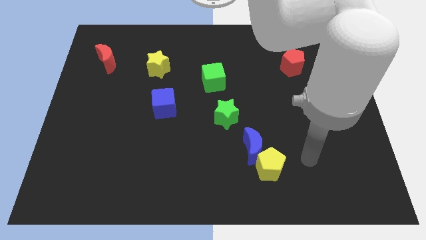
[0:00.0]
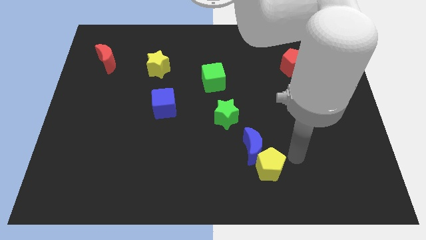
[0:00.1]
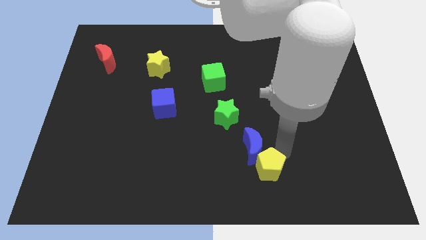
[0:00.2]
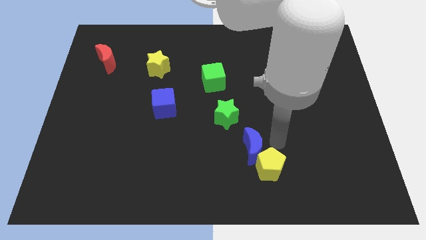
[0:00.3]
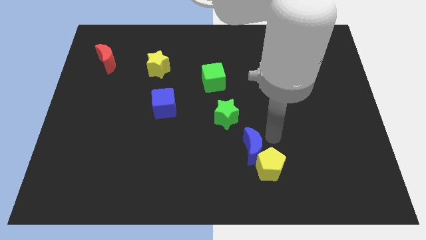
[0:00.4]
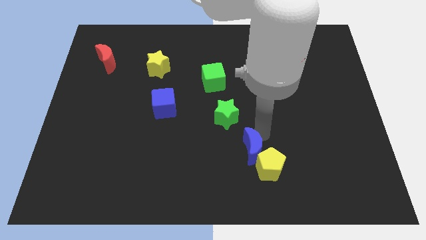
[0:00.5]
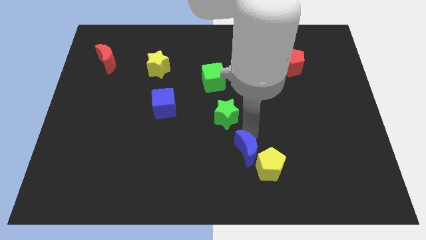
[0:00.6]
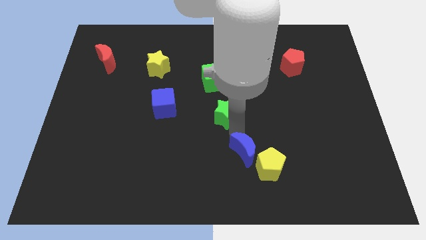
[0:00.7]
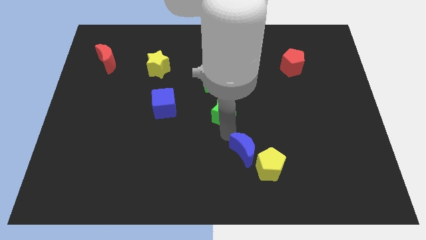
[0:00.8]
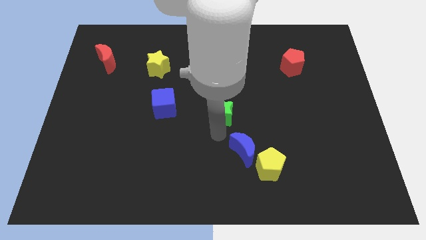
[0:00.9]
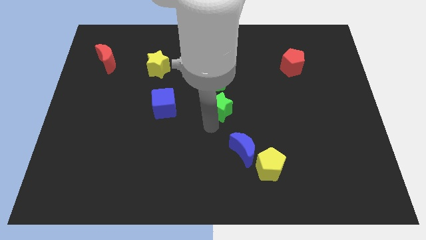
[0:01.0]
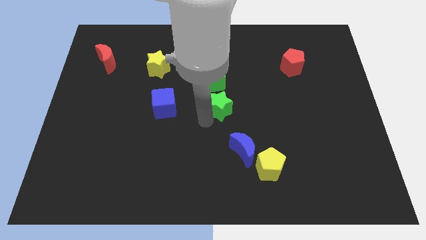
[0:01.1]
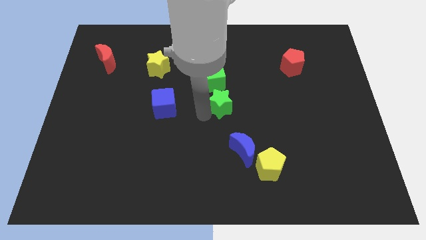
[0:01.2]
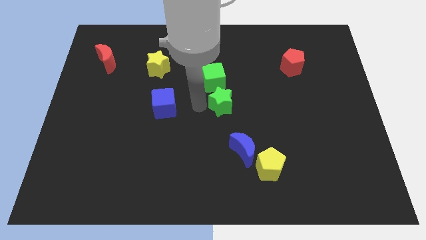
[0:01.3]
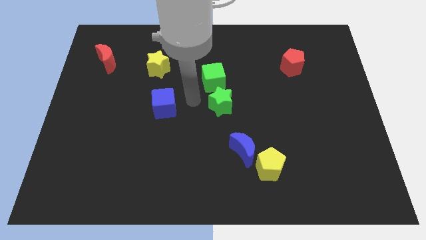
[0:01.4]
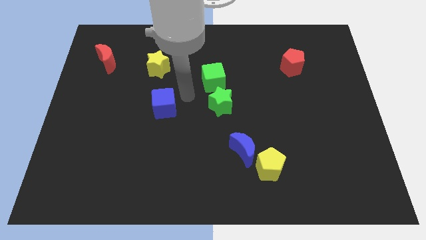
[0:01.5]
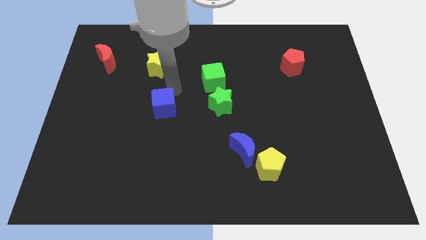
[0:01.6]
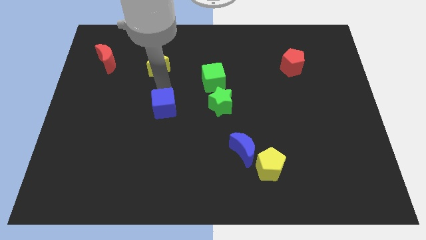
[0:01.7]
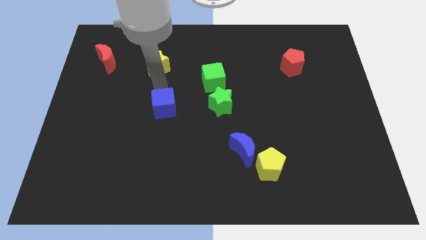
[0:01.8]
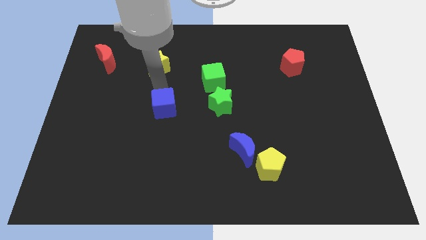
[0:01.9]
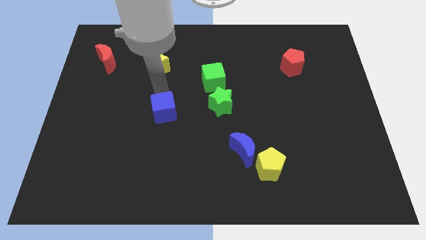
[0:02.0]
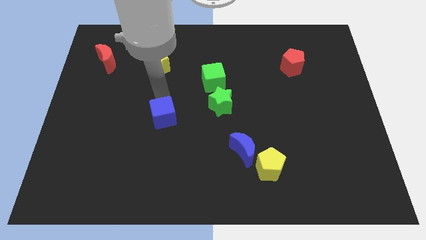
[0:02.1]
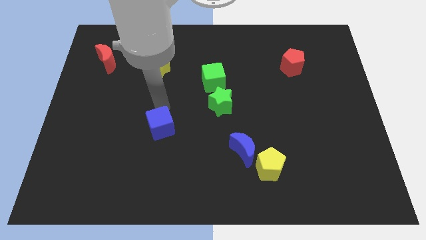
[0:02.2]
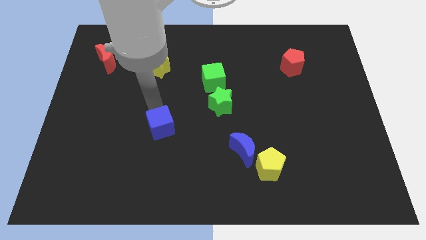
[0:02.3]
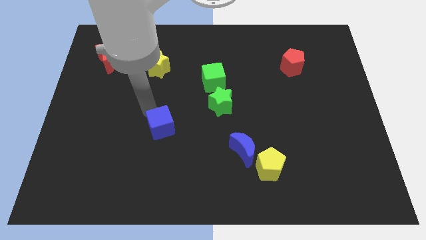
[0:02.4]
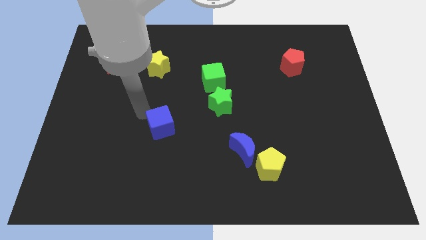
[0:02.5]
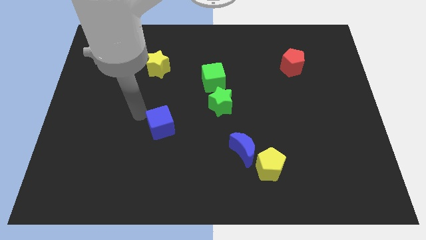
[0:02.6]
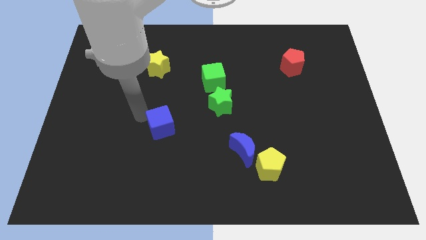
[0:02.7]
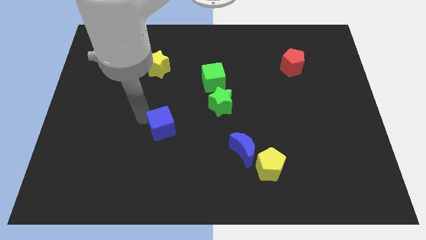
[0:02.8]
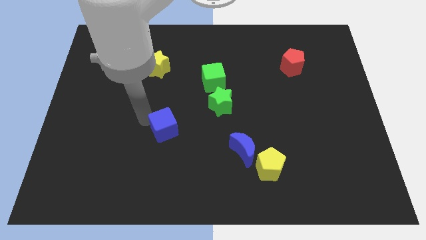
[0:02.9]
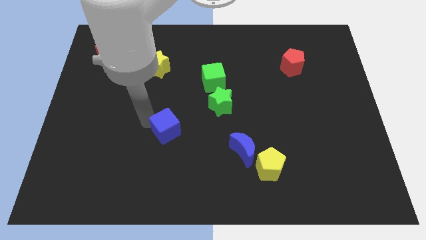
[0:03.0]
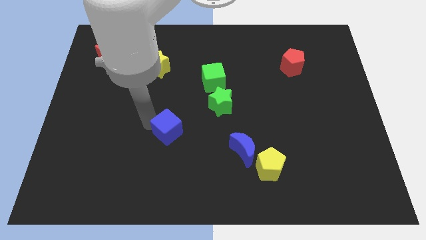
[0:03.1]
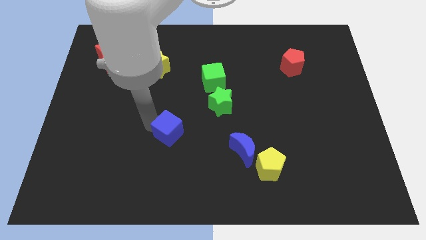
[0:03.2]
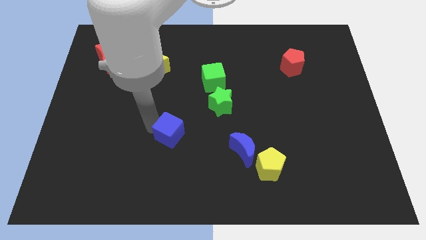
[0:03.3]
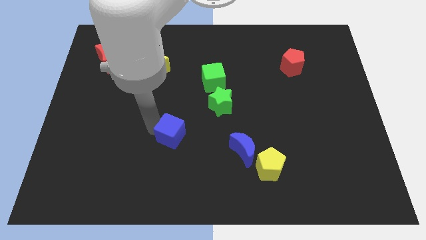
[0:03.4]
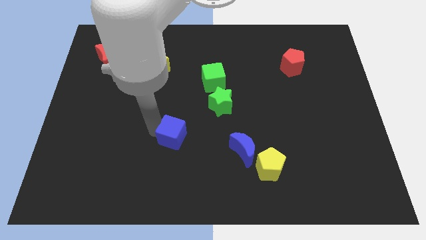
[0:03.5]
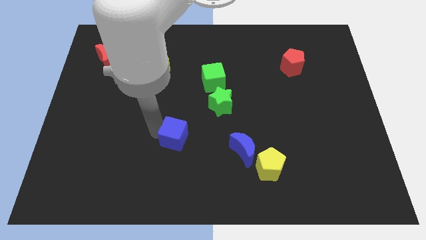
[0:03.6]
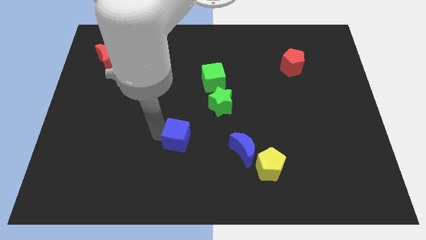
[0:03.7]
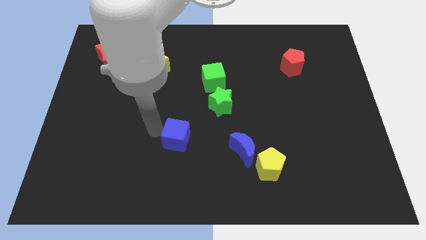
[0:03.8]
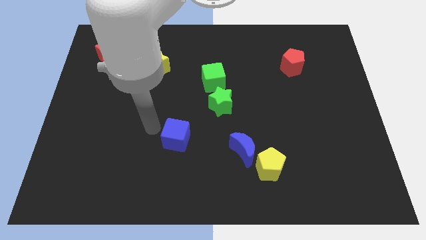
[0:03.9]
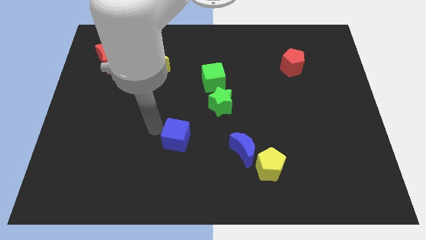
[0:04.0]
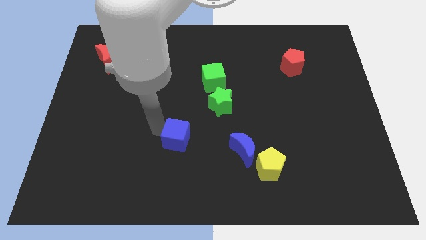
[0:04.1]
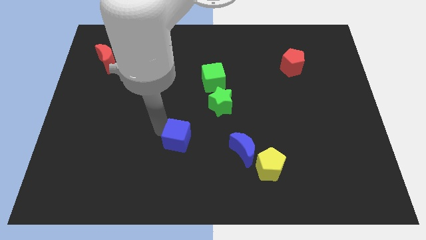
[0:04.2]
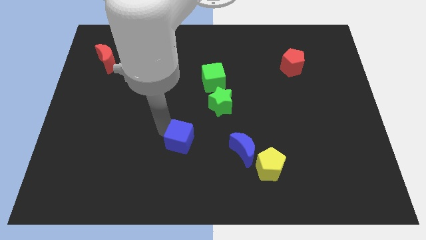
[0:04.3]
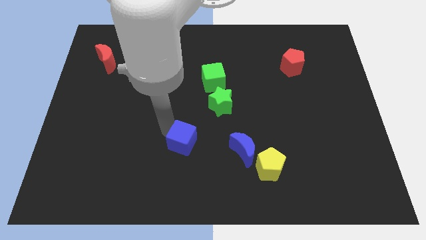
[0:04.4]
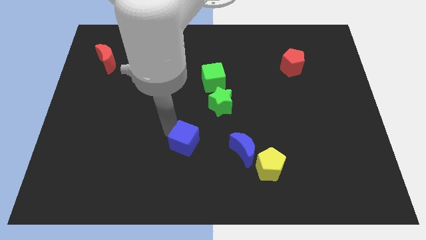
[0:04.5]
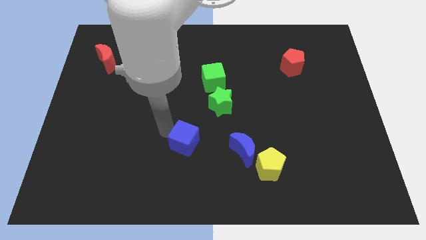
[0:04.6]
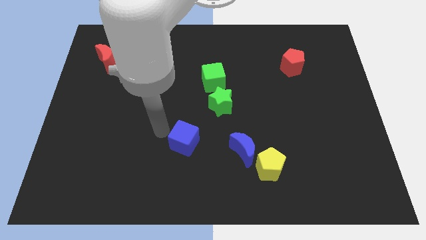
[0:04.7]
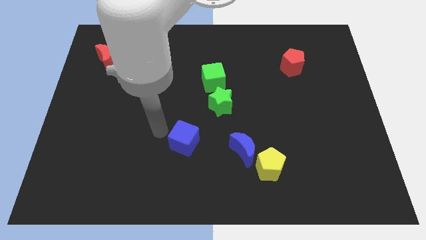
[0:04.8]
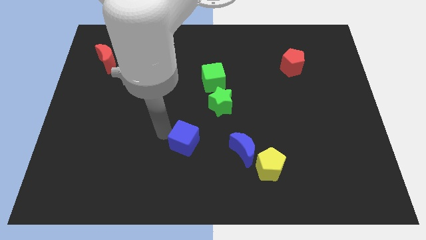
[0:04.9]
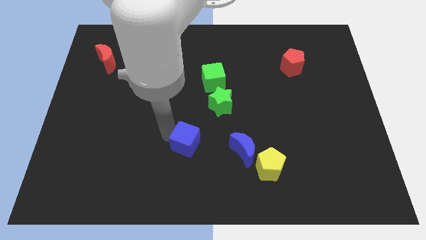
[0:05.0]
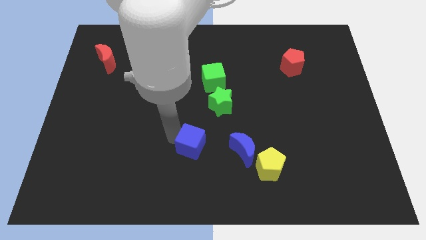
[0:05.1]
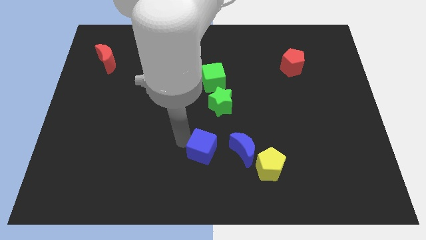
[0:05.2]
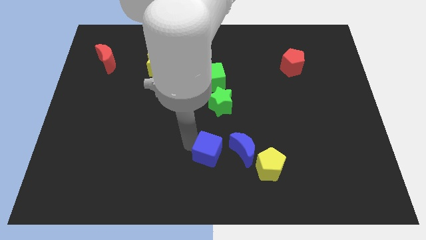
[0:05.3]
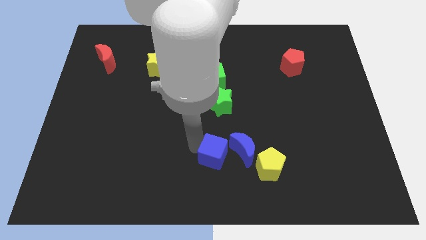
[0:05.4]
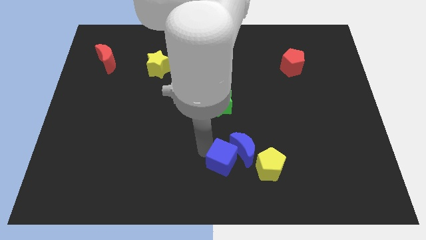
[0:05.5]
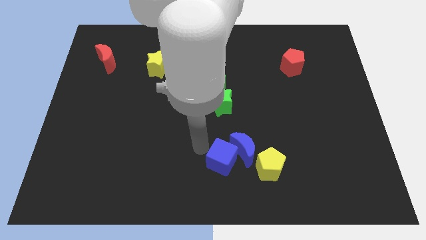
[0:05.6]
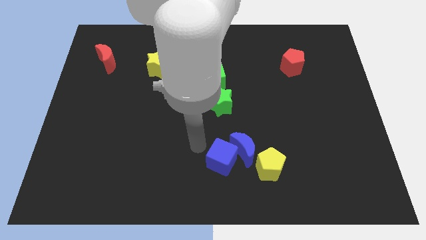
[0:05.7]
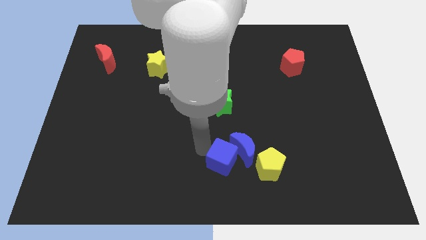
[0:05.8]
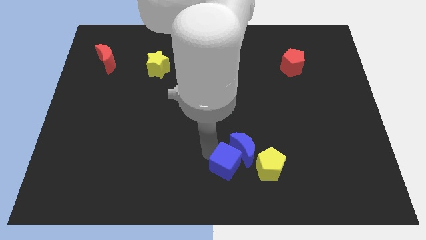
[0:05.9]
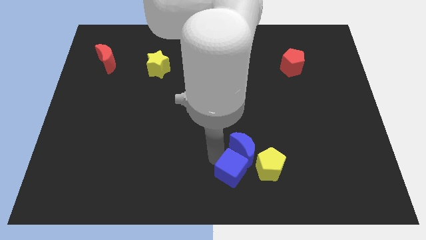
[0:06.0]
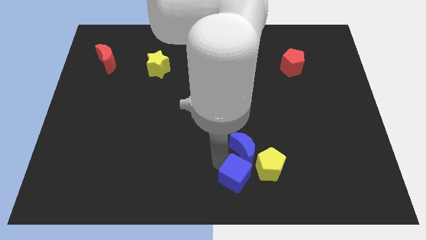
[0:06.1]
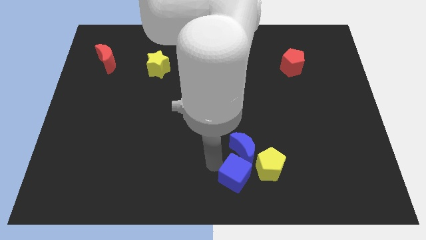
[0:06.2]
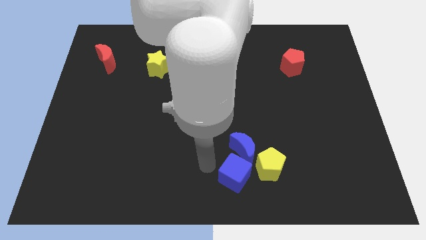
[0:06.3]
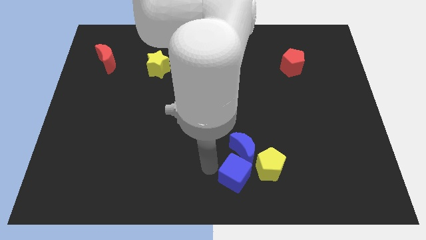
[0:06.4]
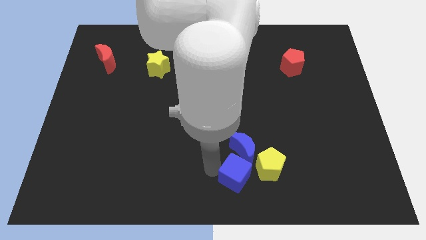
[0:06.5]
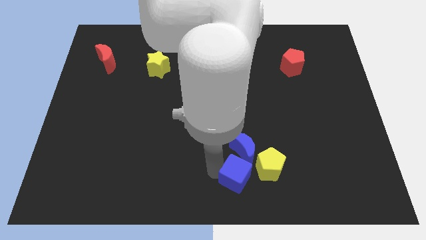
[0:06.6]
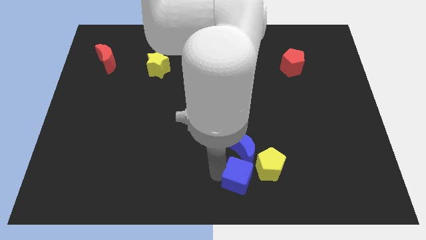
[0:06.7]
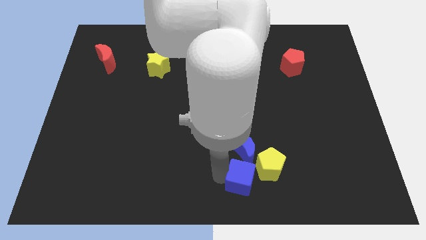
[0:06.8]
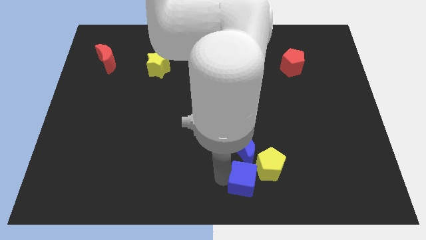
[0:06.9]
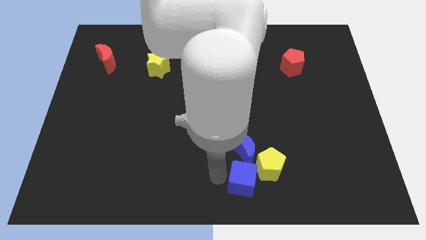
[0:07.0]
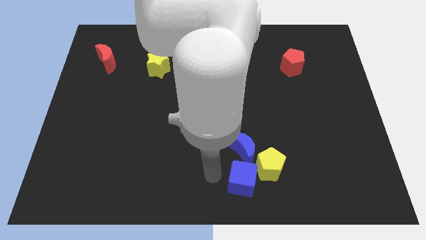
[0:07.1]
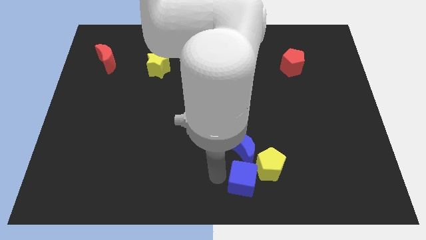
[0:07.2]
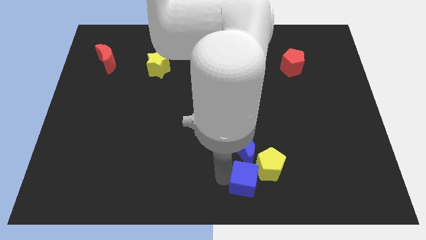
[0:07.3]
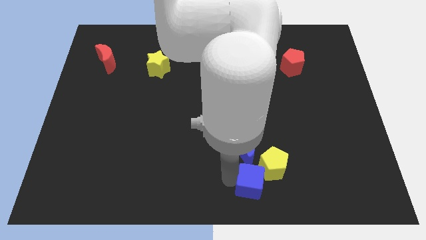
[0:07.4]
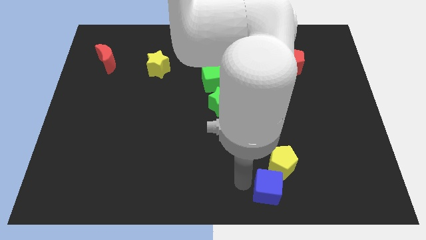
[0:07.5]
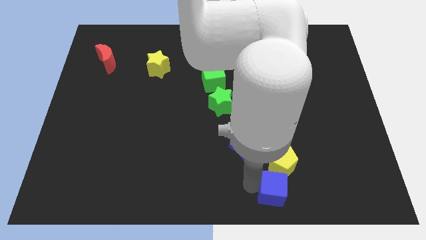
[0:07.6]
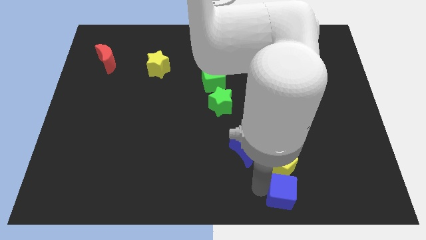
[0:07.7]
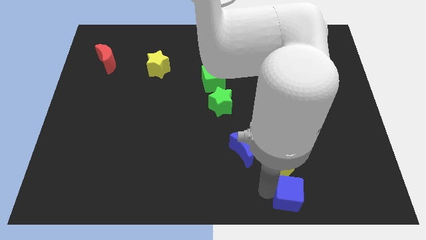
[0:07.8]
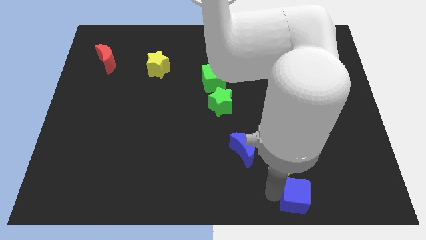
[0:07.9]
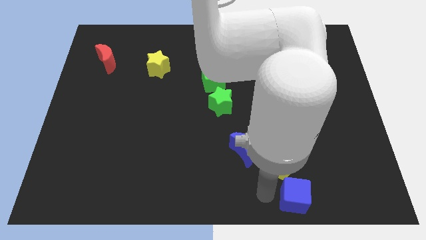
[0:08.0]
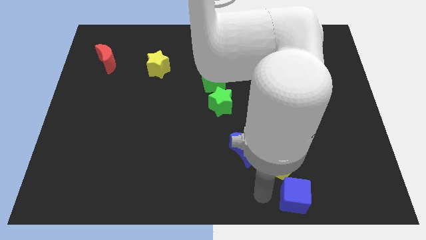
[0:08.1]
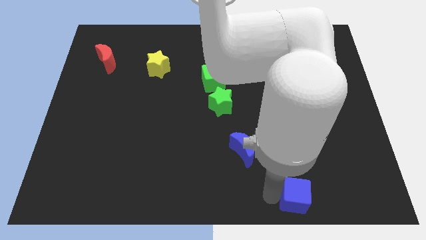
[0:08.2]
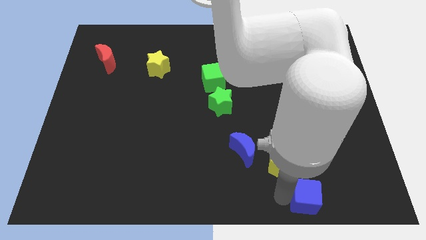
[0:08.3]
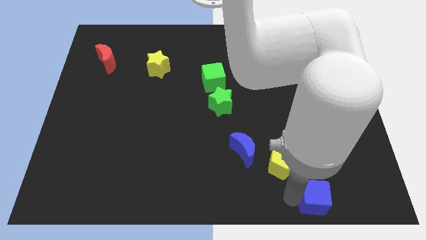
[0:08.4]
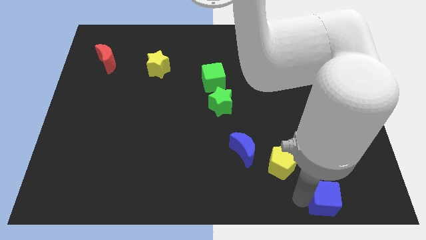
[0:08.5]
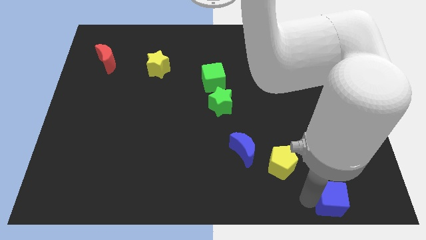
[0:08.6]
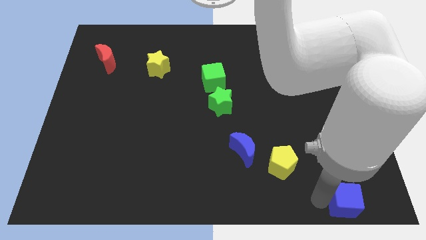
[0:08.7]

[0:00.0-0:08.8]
put the blue cube to the bottom right corner
